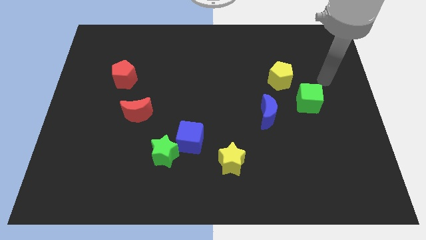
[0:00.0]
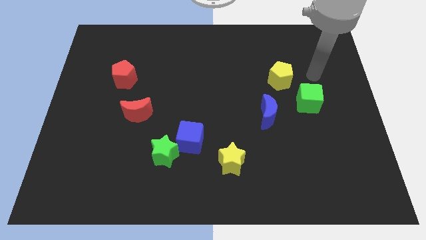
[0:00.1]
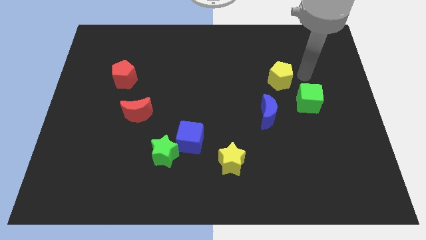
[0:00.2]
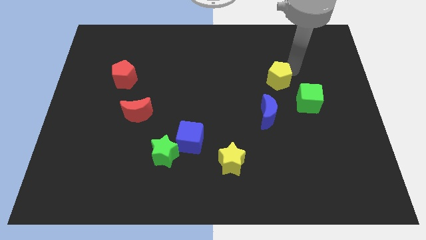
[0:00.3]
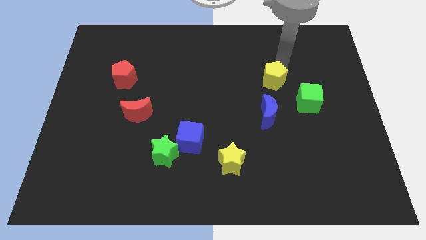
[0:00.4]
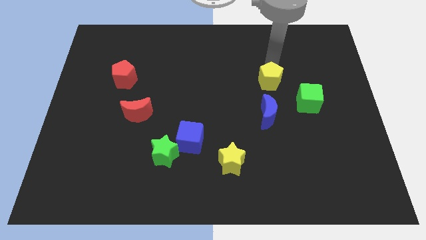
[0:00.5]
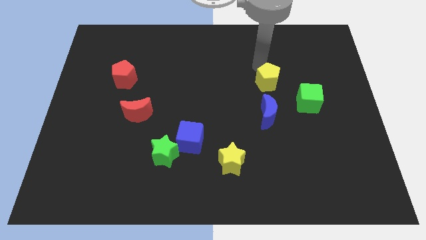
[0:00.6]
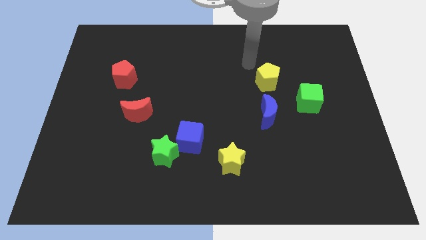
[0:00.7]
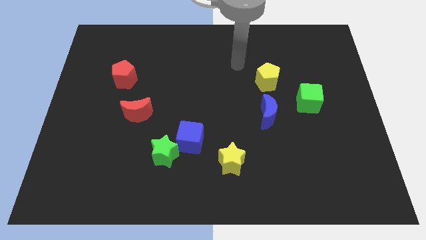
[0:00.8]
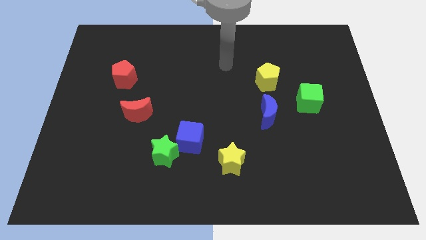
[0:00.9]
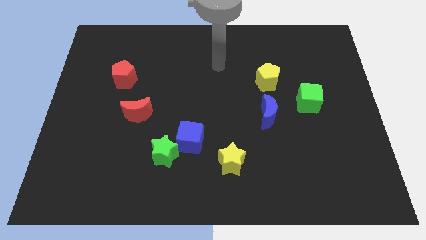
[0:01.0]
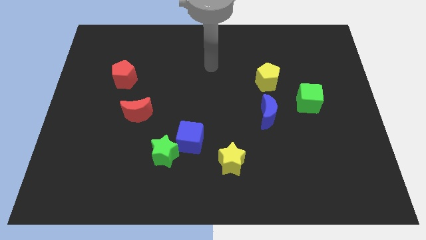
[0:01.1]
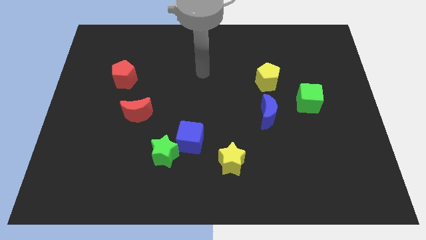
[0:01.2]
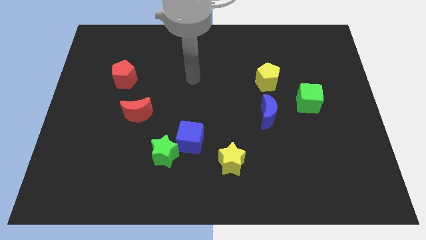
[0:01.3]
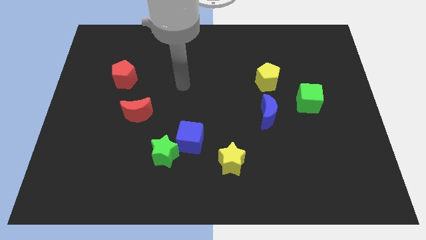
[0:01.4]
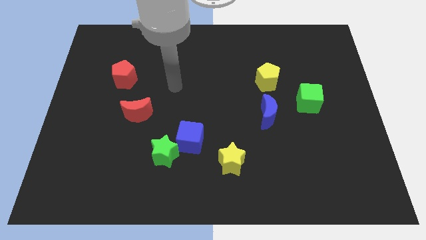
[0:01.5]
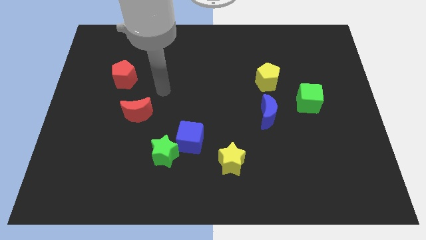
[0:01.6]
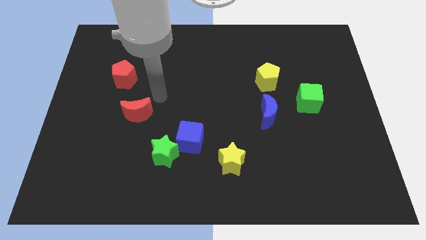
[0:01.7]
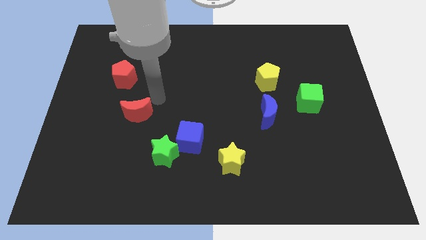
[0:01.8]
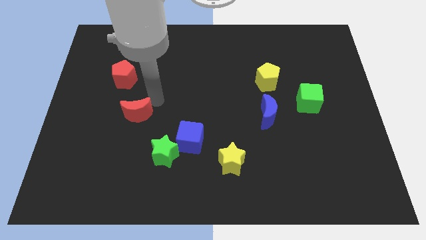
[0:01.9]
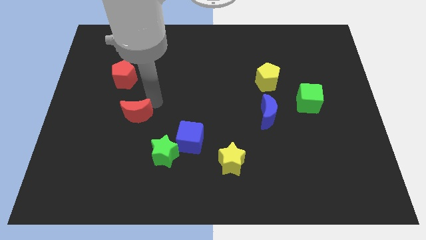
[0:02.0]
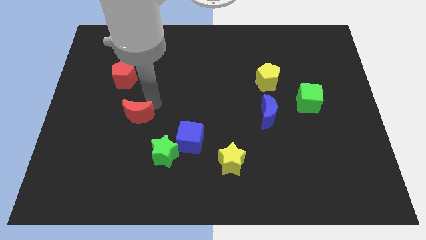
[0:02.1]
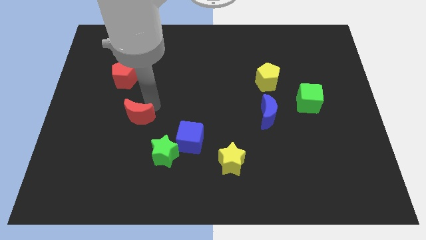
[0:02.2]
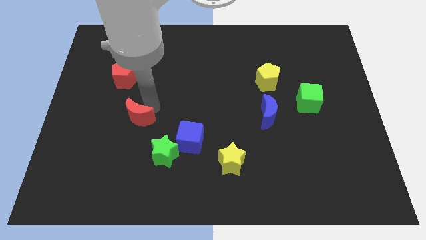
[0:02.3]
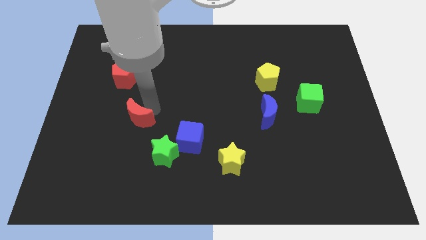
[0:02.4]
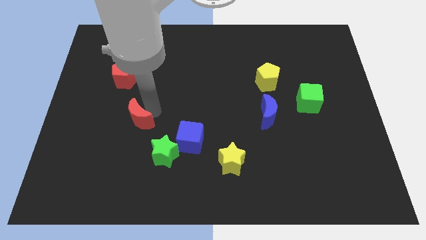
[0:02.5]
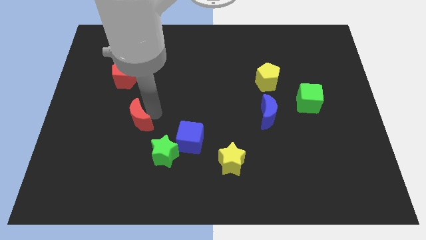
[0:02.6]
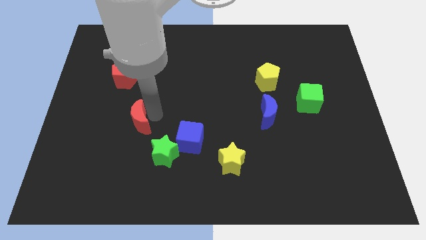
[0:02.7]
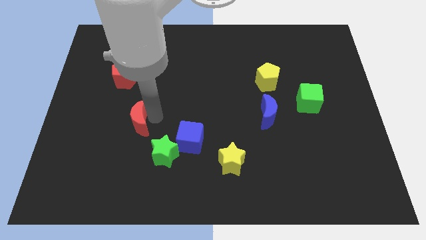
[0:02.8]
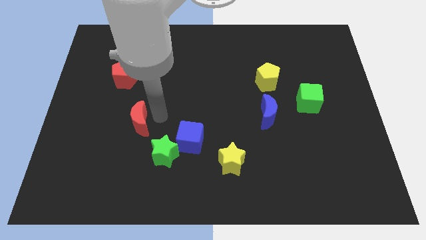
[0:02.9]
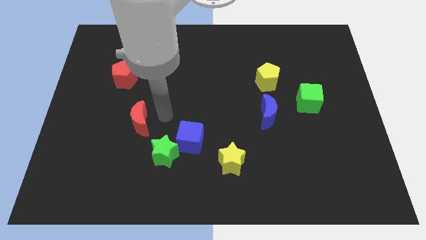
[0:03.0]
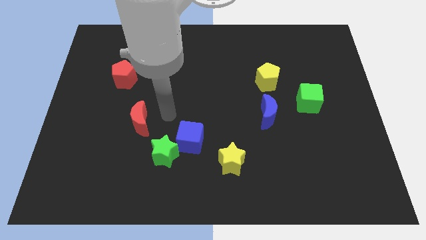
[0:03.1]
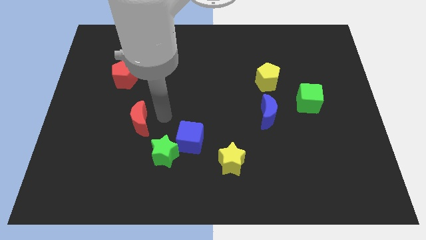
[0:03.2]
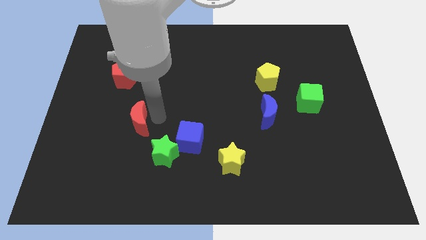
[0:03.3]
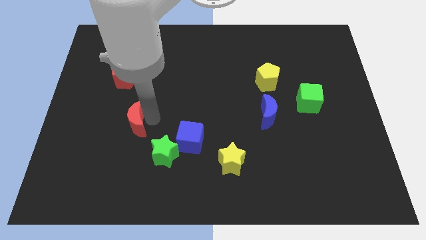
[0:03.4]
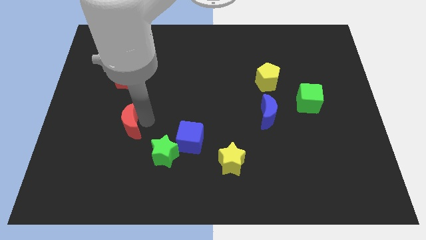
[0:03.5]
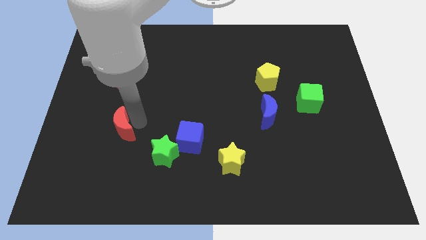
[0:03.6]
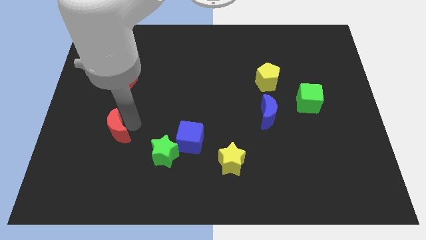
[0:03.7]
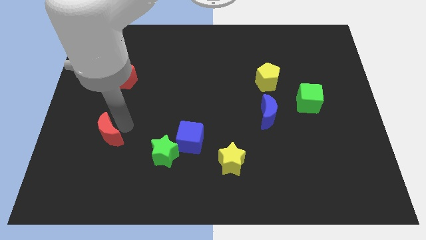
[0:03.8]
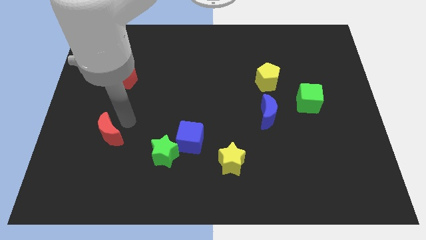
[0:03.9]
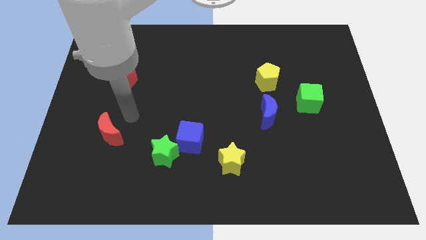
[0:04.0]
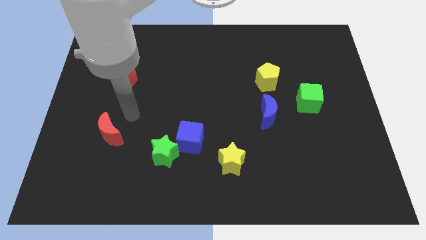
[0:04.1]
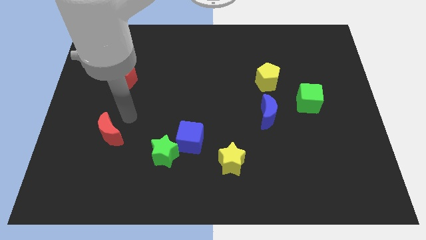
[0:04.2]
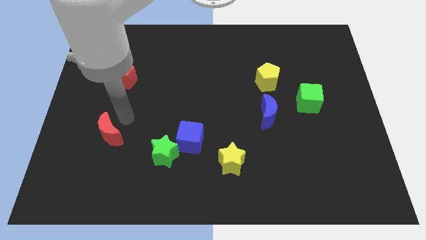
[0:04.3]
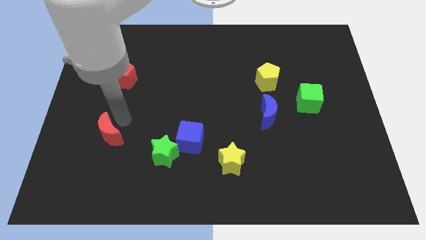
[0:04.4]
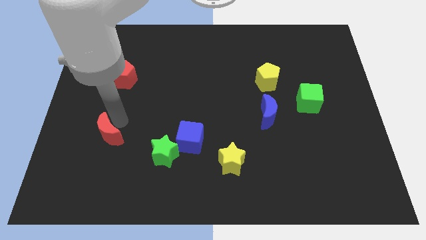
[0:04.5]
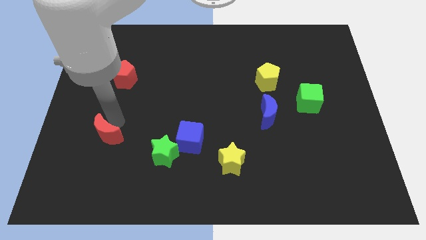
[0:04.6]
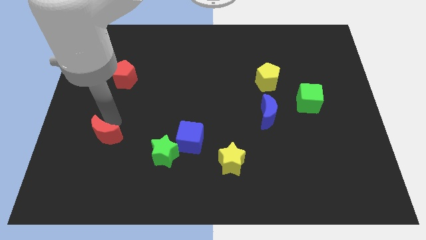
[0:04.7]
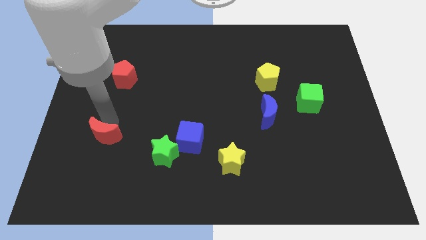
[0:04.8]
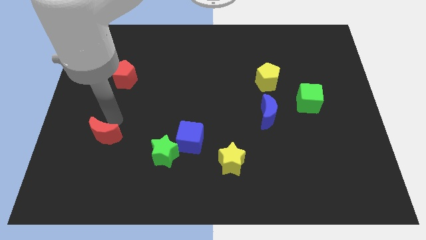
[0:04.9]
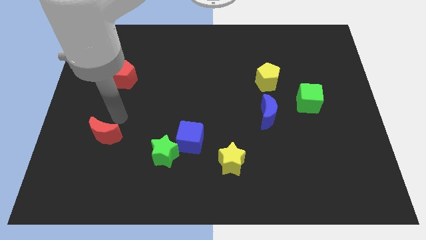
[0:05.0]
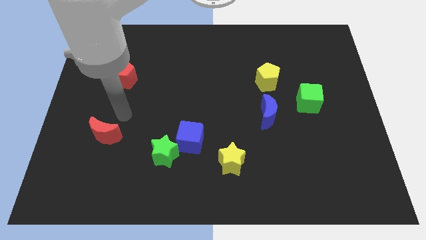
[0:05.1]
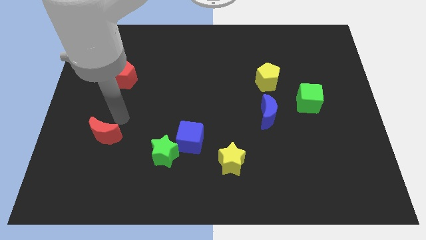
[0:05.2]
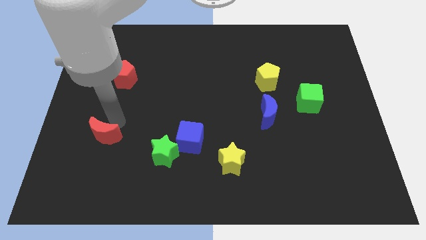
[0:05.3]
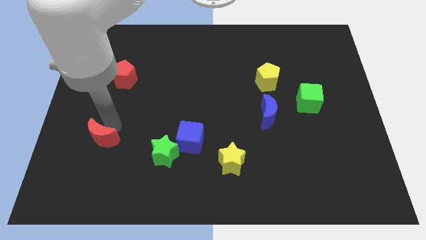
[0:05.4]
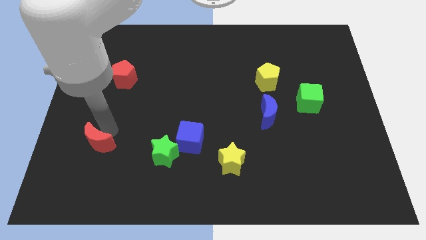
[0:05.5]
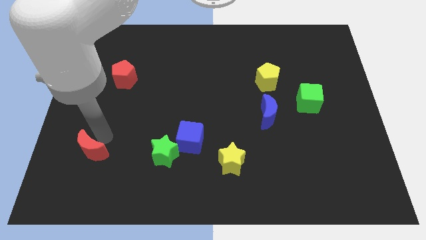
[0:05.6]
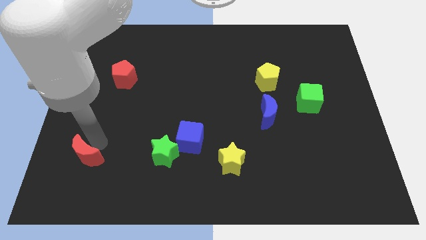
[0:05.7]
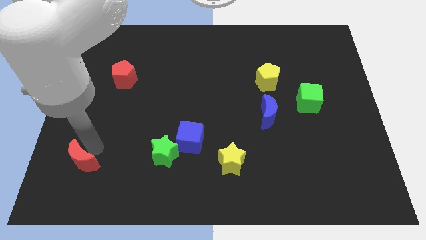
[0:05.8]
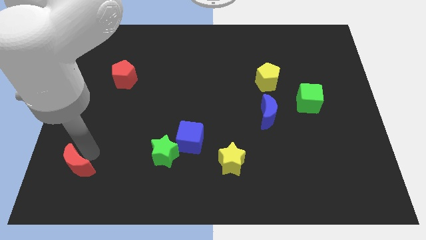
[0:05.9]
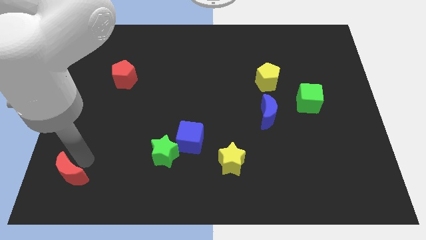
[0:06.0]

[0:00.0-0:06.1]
move the red moon to the lower left corner

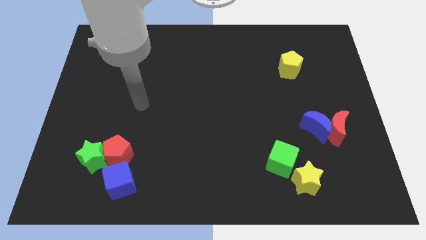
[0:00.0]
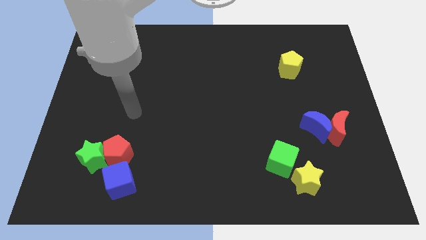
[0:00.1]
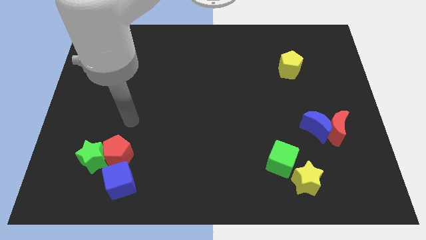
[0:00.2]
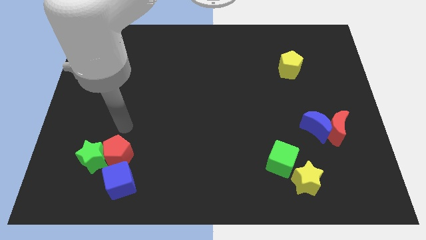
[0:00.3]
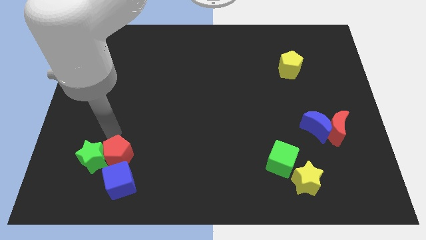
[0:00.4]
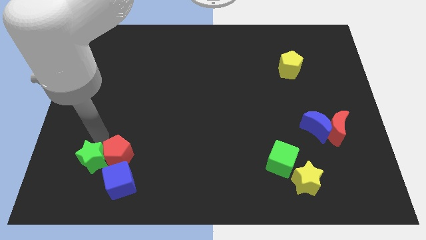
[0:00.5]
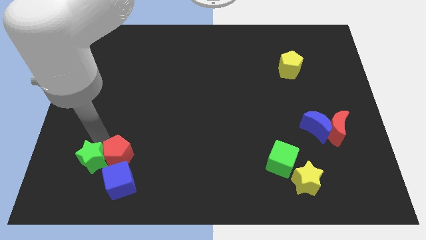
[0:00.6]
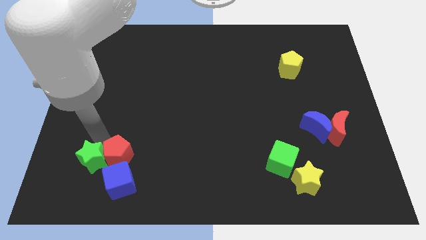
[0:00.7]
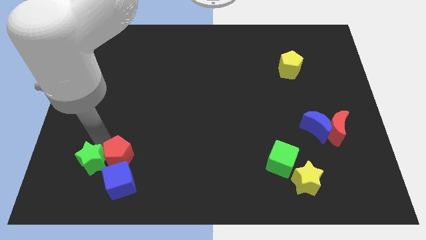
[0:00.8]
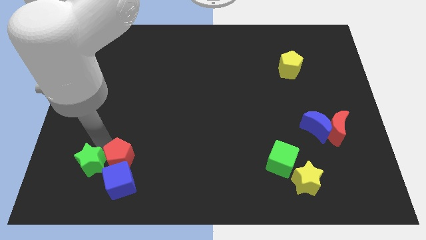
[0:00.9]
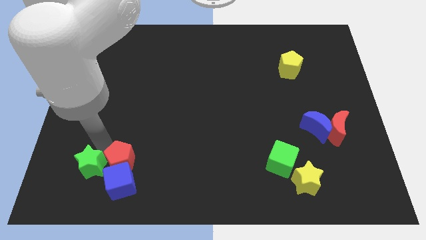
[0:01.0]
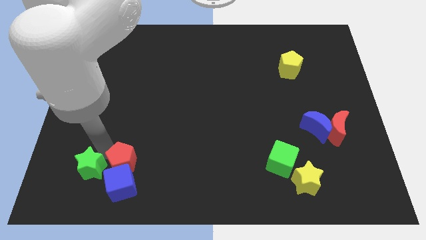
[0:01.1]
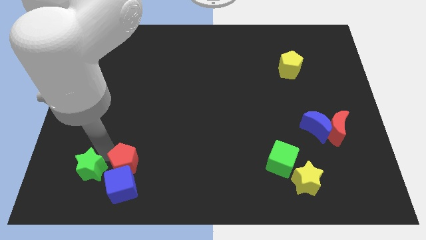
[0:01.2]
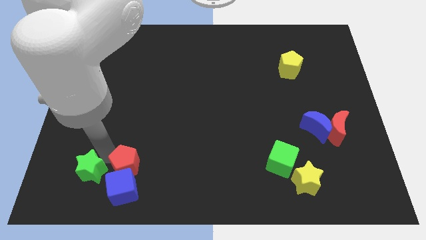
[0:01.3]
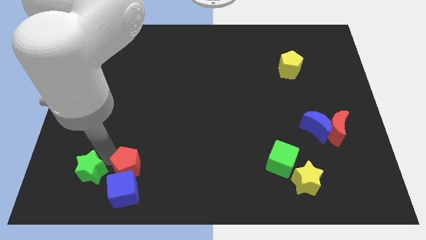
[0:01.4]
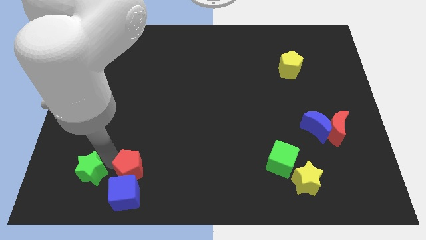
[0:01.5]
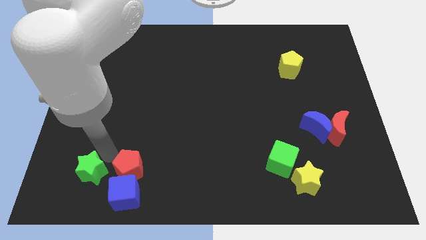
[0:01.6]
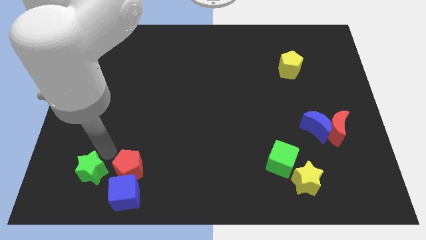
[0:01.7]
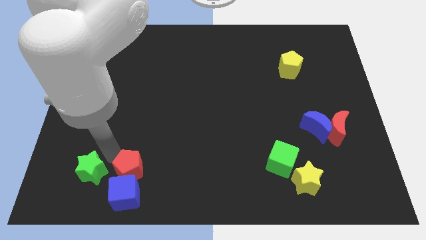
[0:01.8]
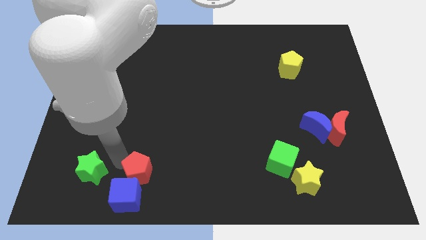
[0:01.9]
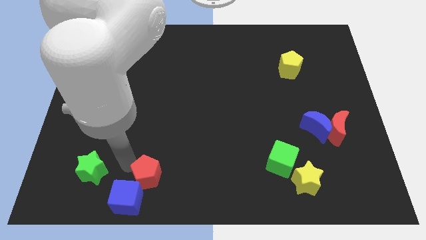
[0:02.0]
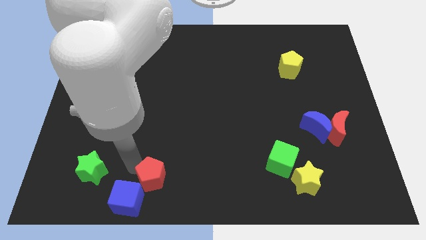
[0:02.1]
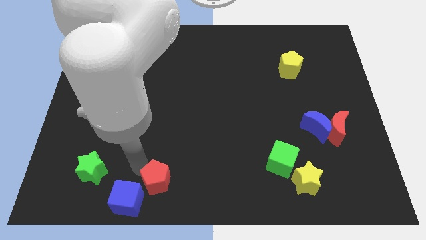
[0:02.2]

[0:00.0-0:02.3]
move the red pentagon to the bottom
